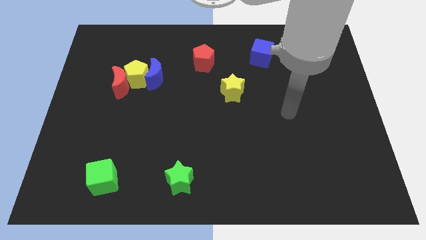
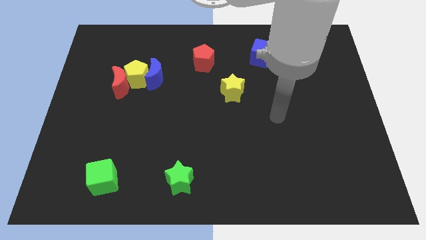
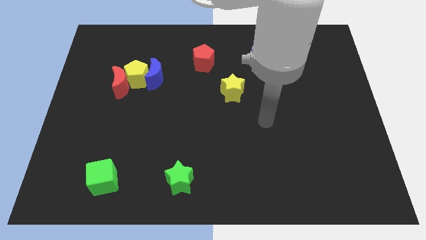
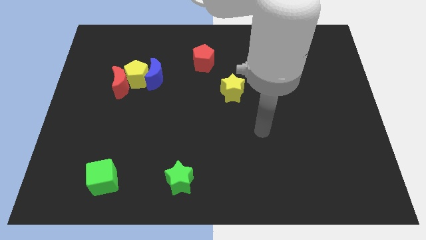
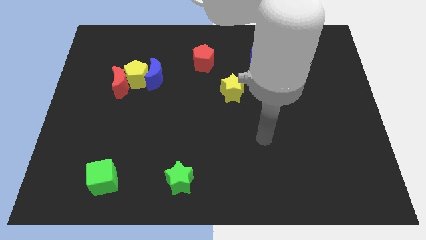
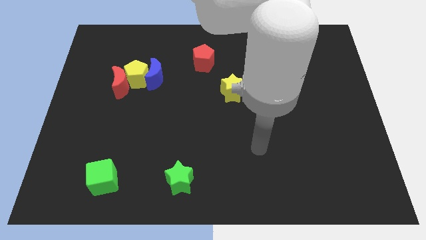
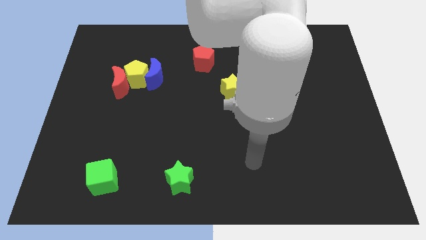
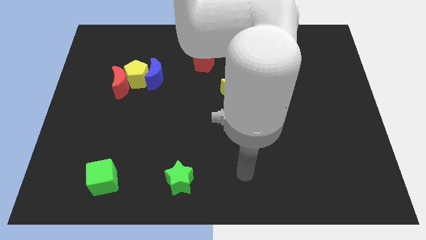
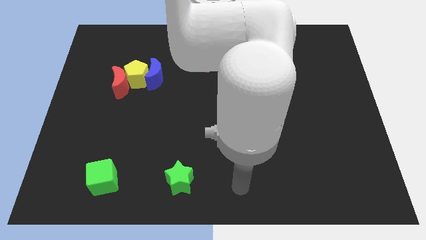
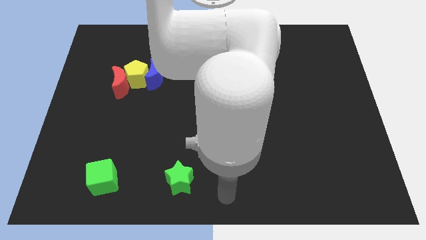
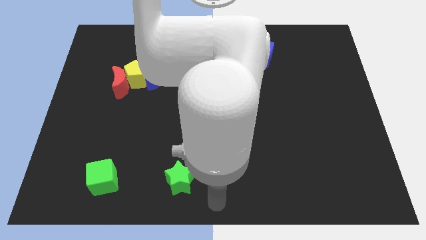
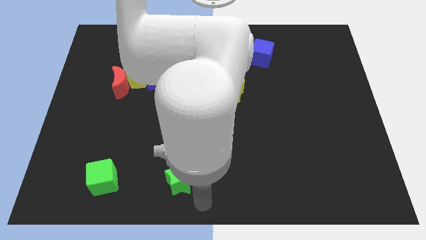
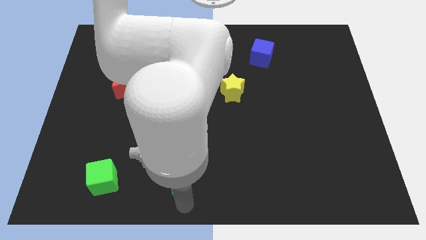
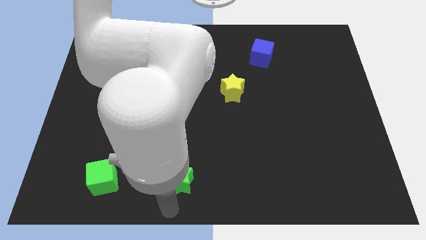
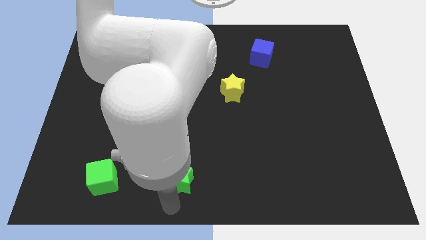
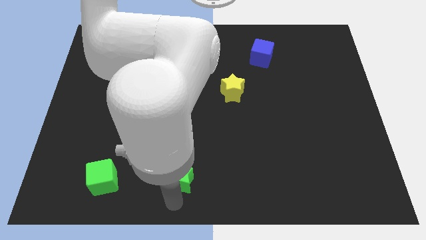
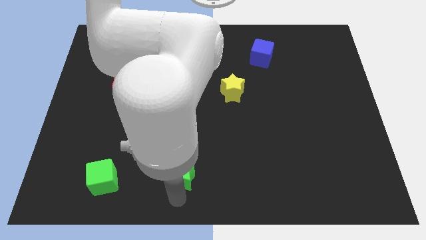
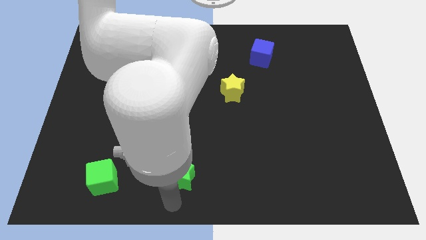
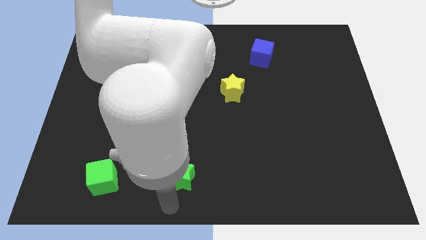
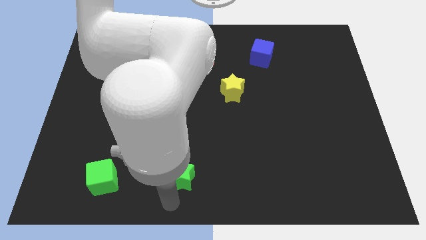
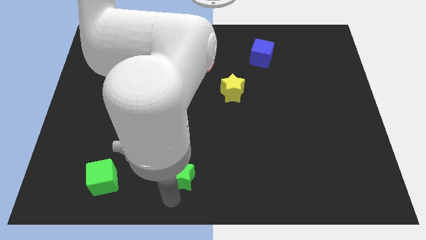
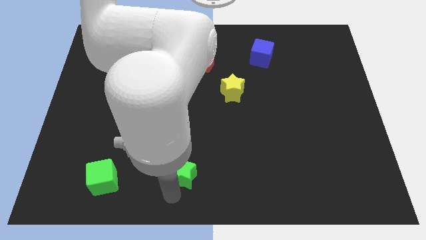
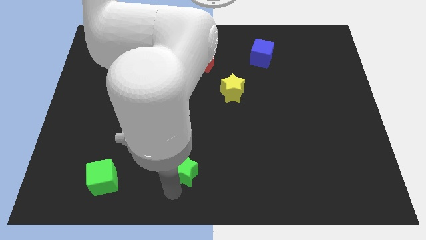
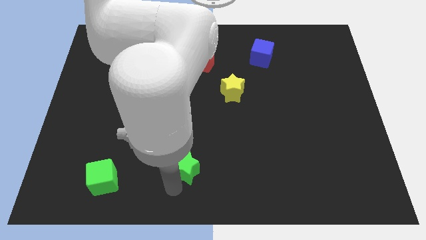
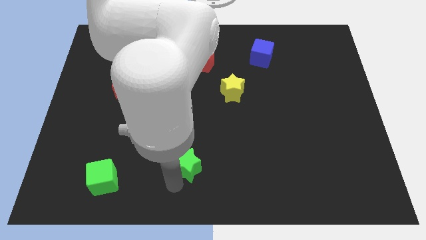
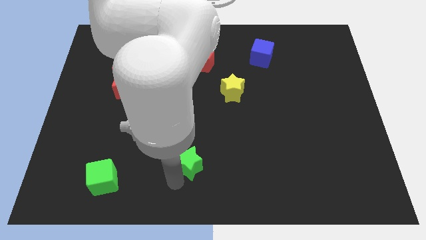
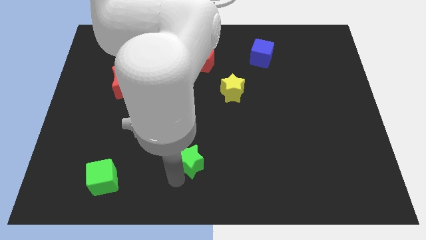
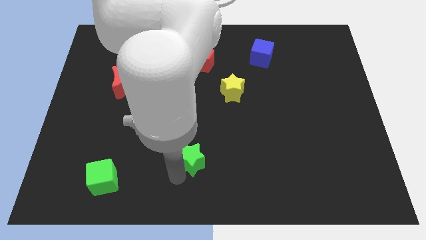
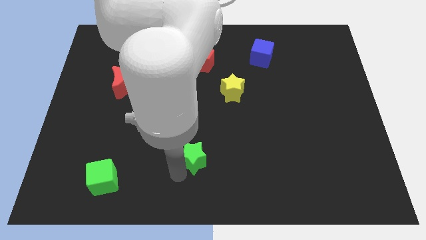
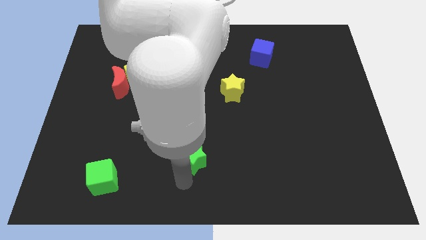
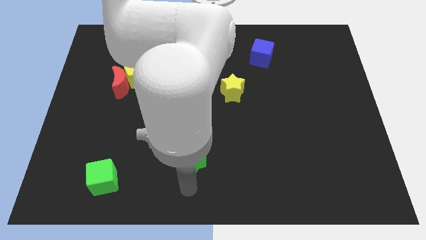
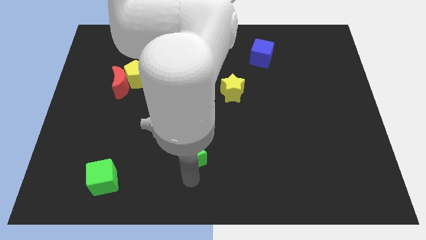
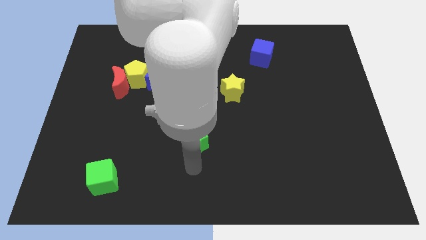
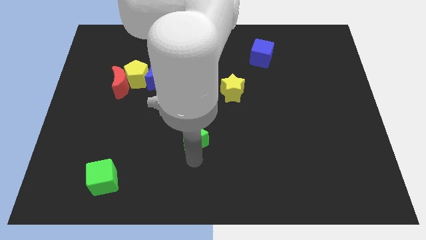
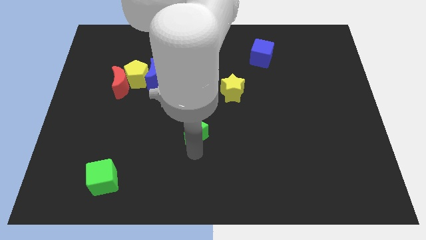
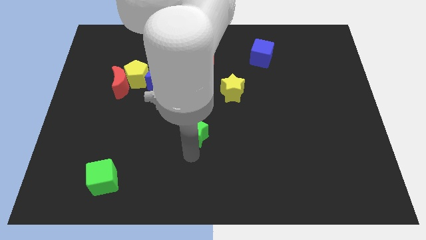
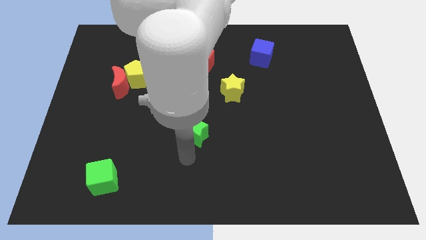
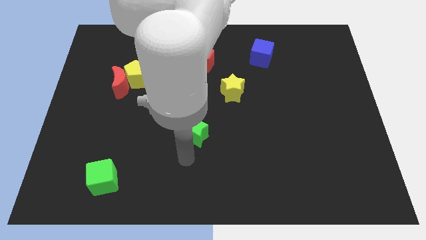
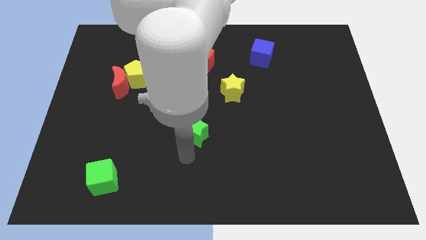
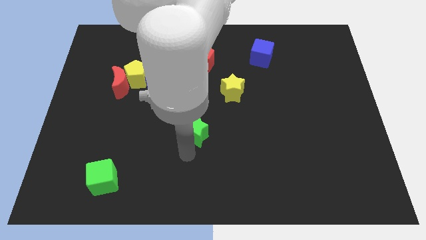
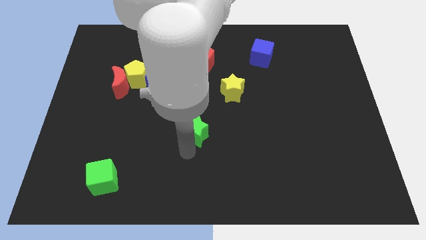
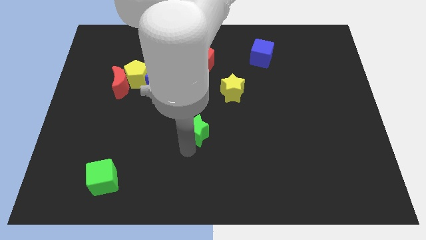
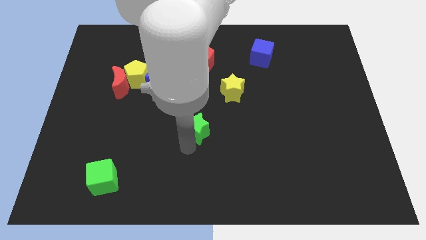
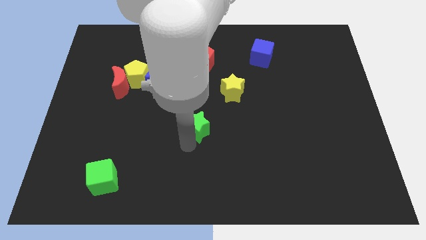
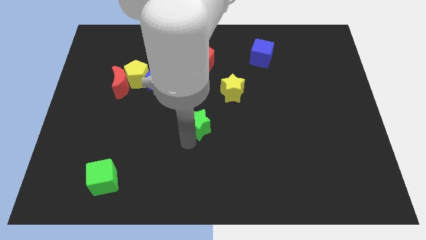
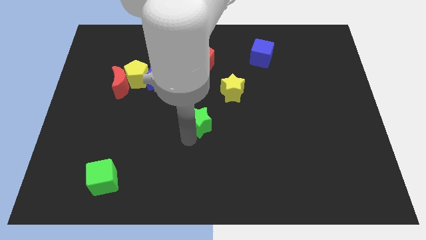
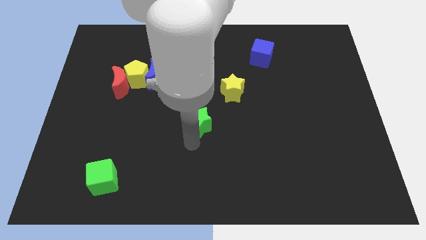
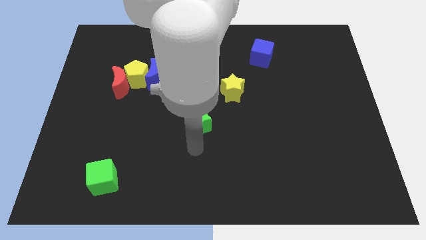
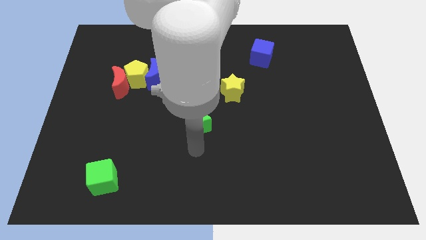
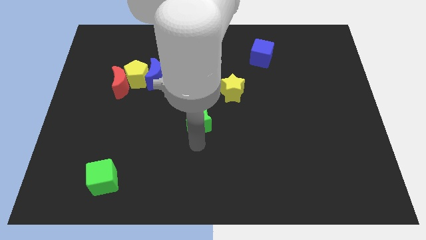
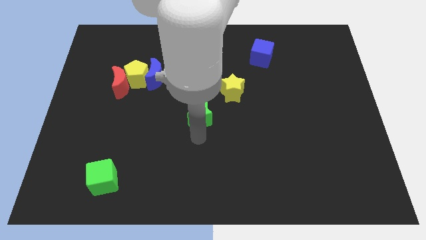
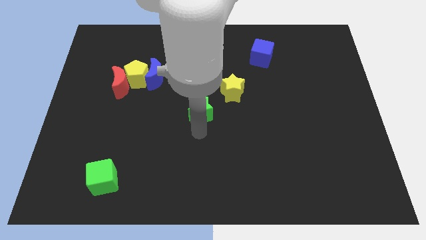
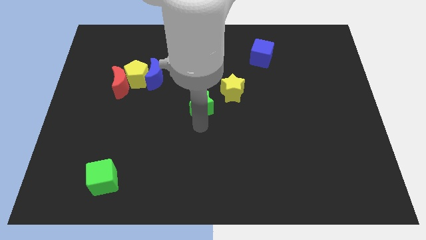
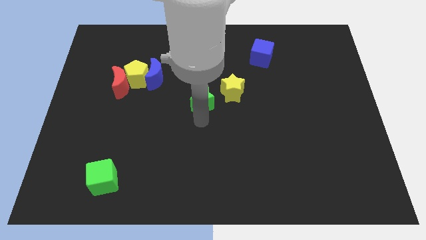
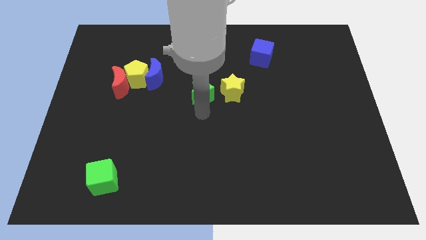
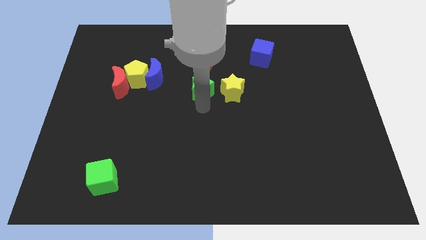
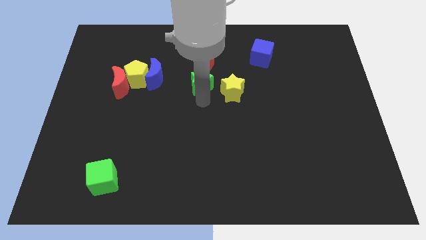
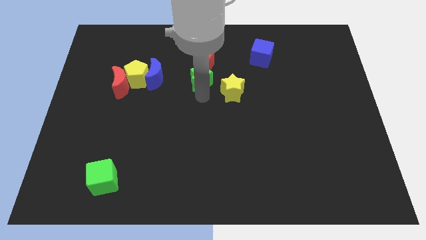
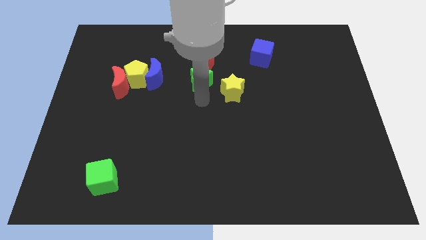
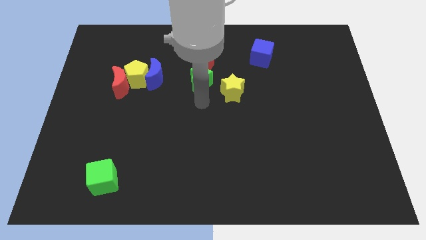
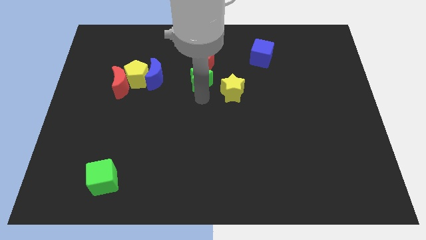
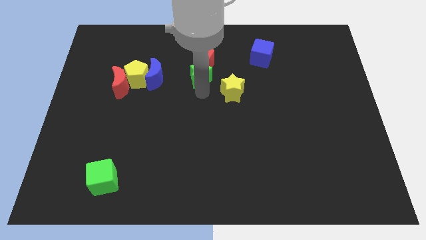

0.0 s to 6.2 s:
move the green star close to the red pentagon
